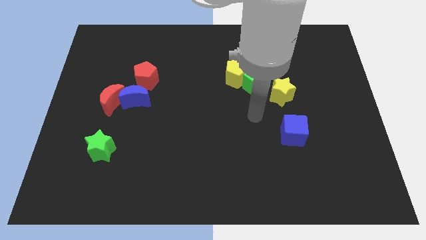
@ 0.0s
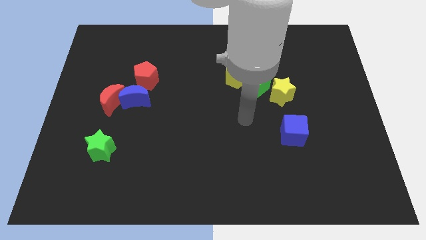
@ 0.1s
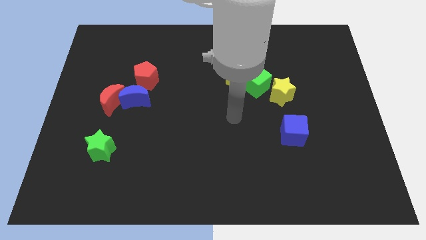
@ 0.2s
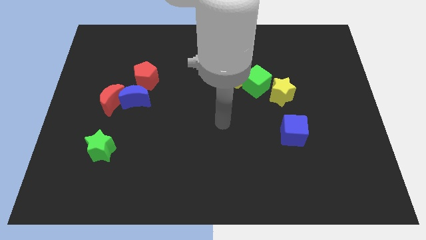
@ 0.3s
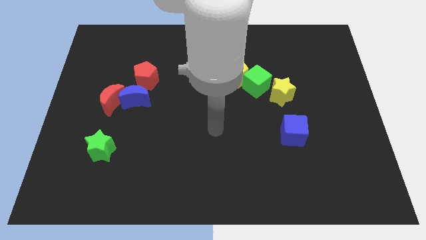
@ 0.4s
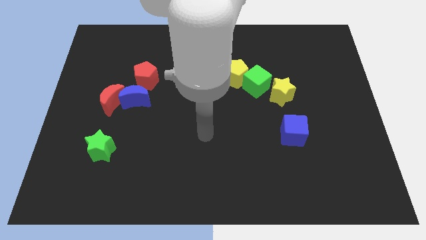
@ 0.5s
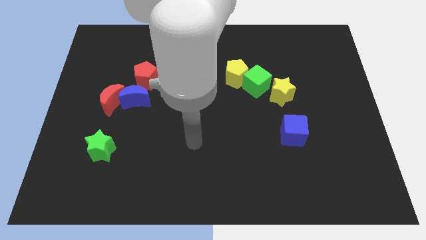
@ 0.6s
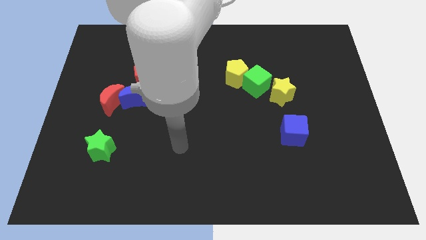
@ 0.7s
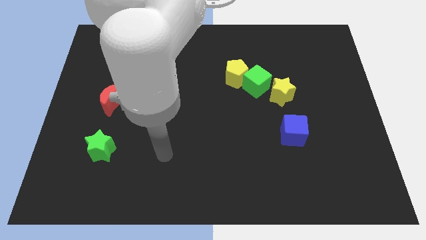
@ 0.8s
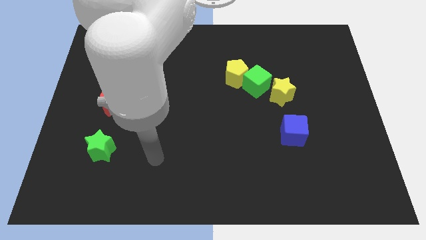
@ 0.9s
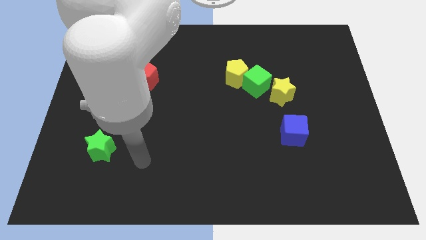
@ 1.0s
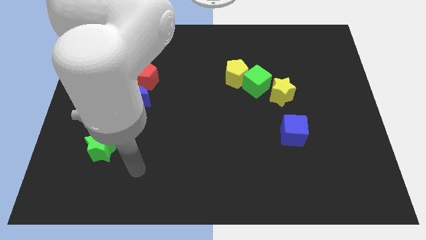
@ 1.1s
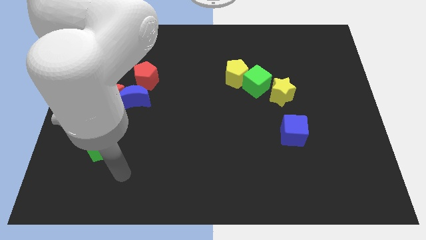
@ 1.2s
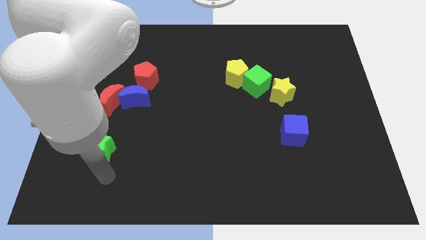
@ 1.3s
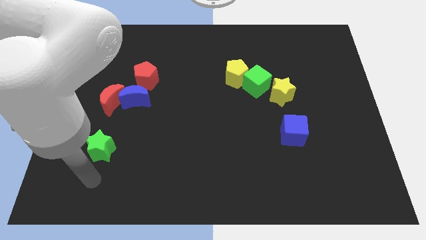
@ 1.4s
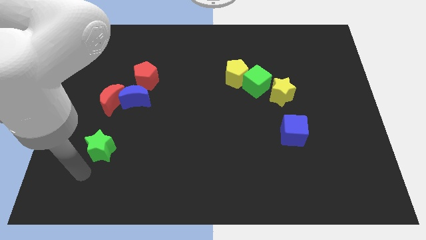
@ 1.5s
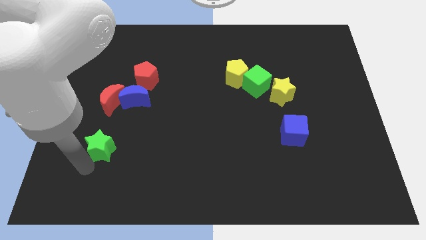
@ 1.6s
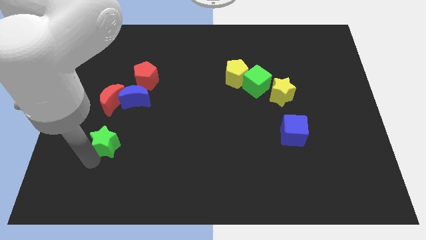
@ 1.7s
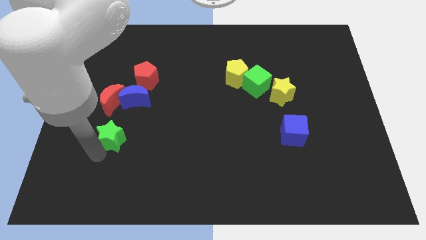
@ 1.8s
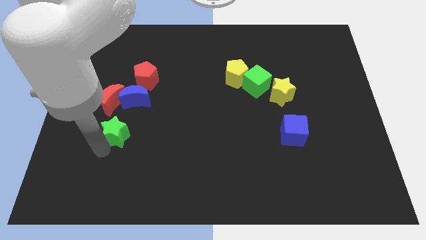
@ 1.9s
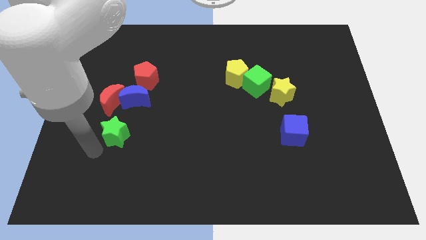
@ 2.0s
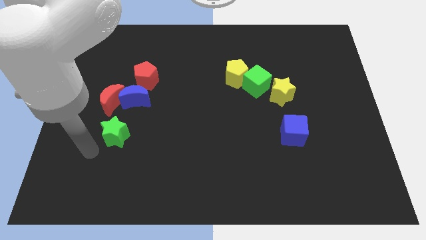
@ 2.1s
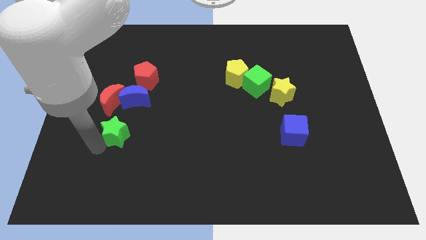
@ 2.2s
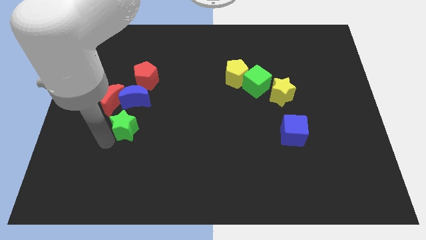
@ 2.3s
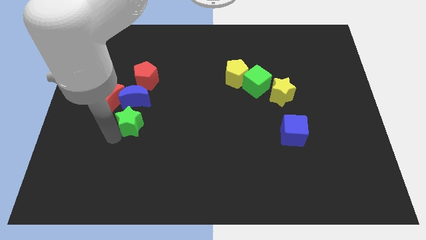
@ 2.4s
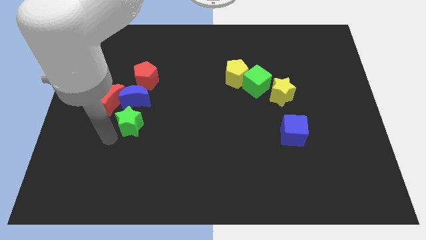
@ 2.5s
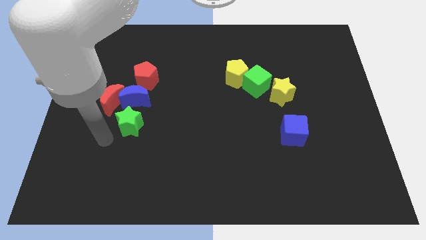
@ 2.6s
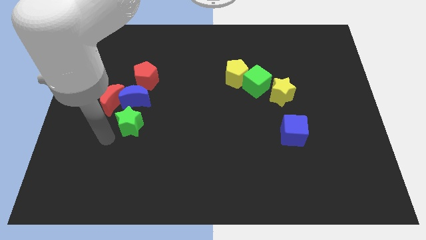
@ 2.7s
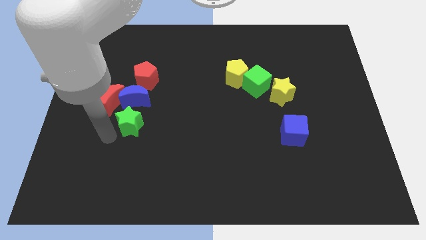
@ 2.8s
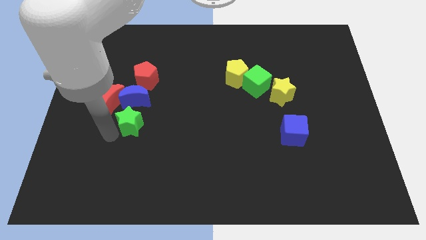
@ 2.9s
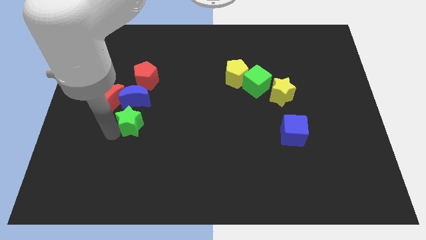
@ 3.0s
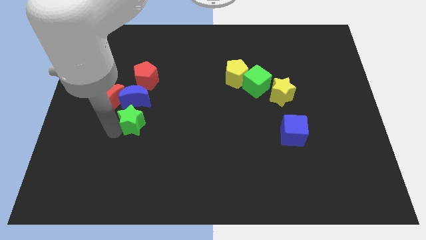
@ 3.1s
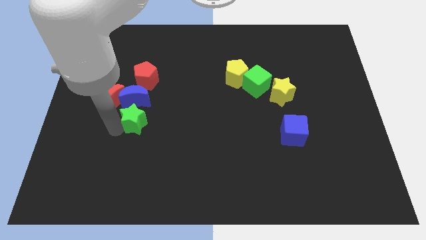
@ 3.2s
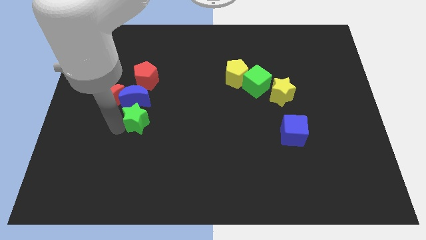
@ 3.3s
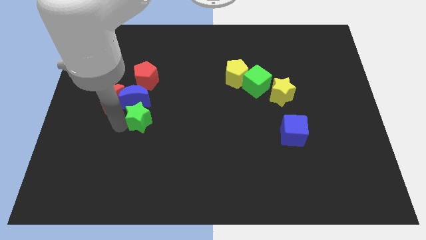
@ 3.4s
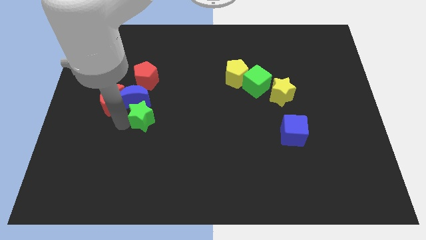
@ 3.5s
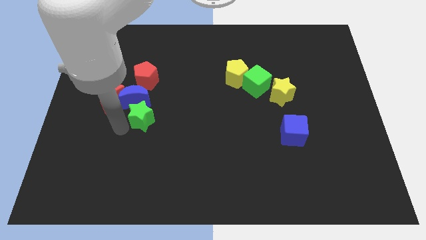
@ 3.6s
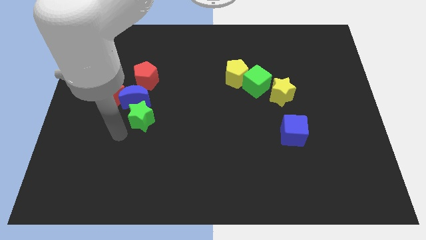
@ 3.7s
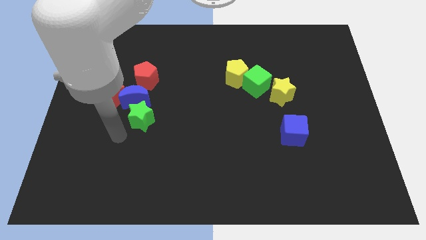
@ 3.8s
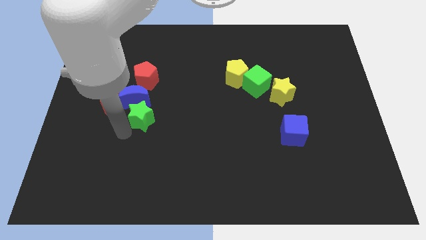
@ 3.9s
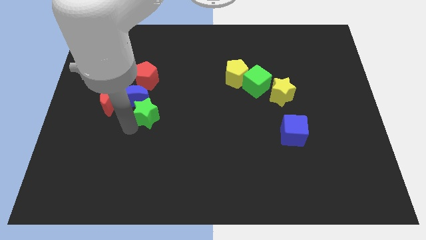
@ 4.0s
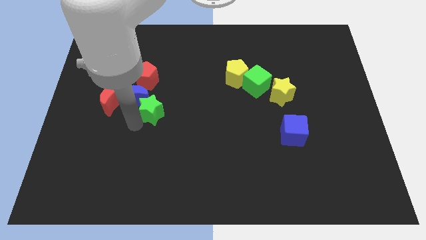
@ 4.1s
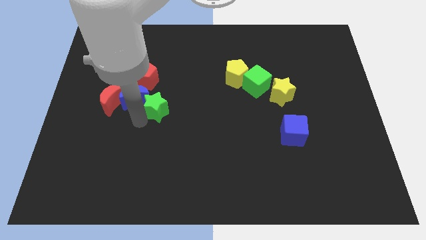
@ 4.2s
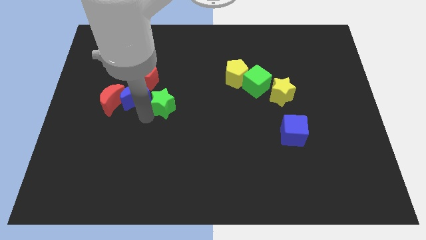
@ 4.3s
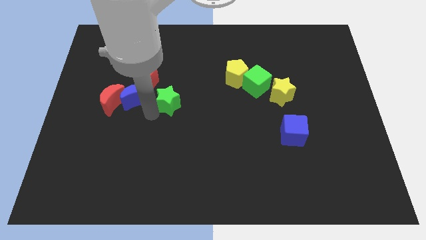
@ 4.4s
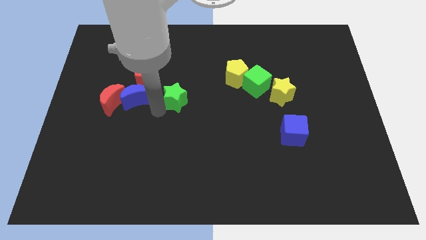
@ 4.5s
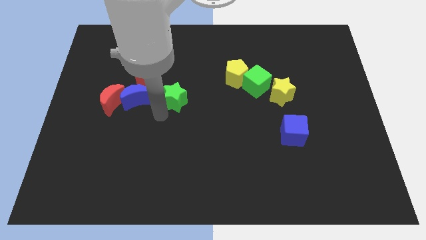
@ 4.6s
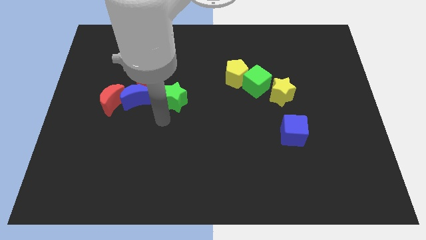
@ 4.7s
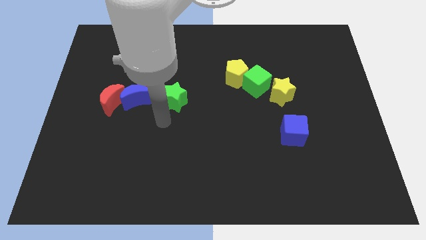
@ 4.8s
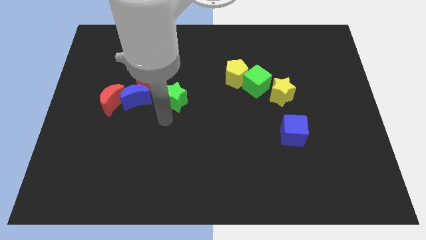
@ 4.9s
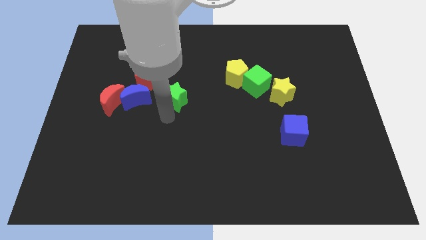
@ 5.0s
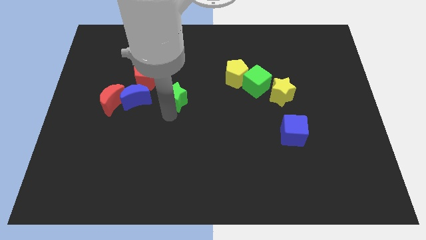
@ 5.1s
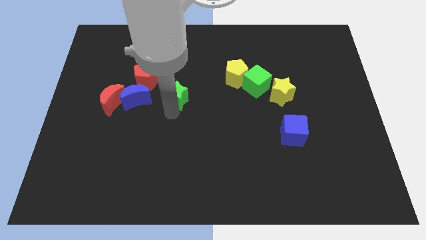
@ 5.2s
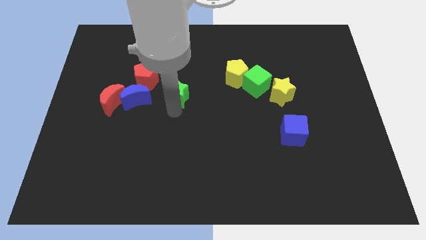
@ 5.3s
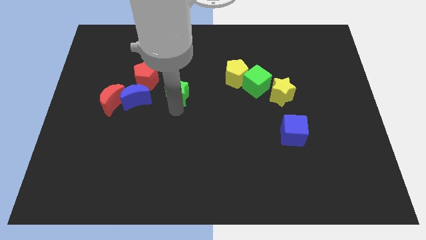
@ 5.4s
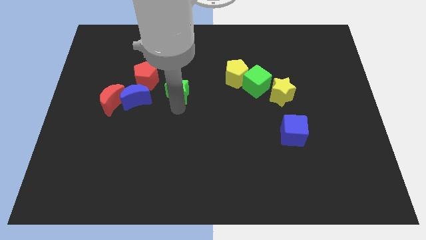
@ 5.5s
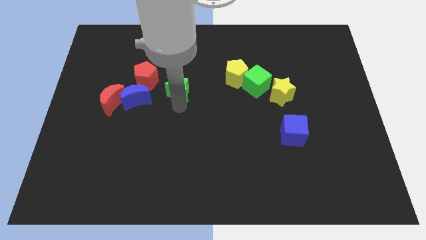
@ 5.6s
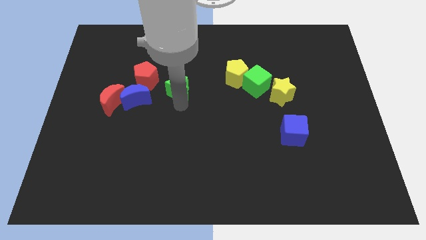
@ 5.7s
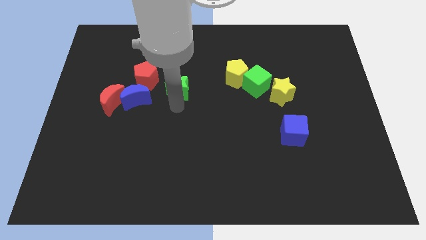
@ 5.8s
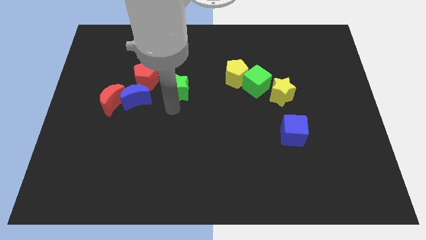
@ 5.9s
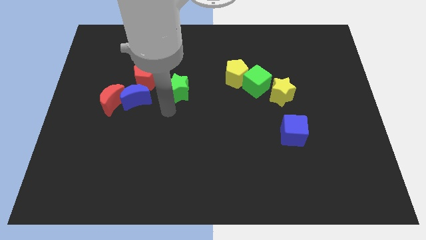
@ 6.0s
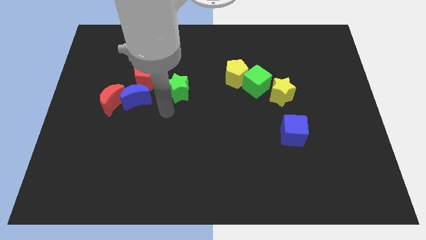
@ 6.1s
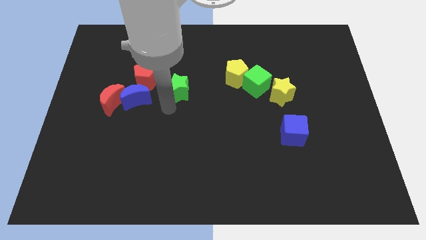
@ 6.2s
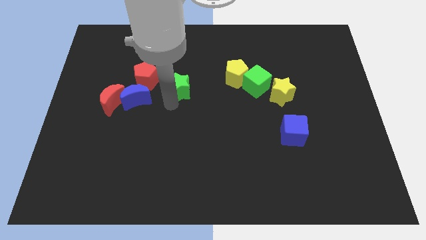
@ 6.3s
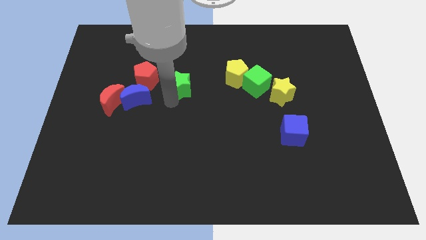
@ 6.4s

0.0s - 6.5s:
put the green star to the left side of the yellow pentagon
